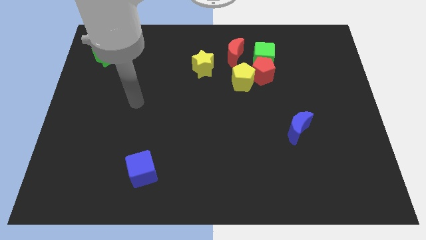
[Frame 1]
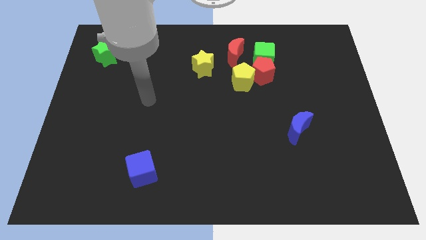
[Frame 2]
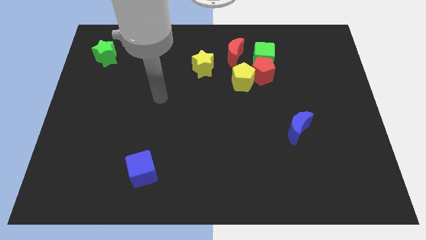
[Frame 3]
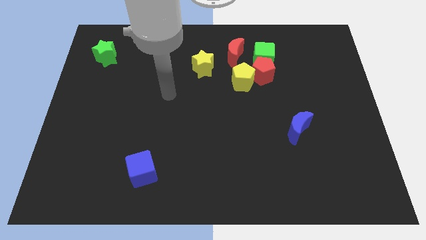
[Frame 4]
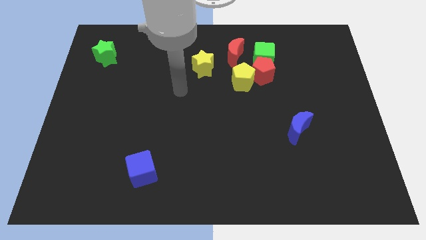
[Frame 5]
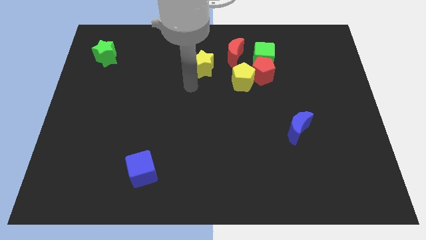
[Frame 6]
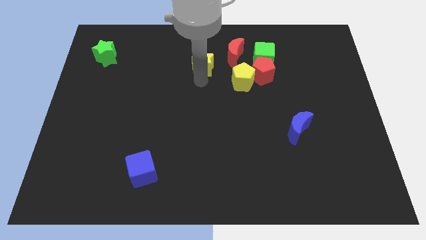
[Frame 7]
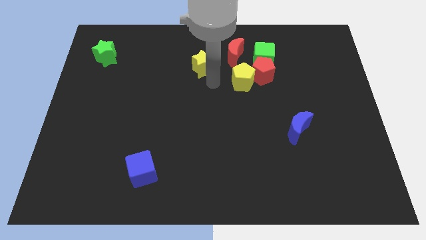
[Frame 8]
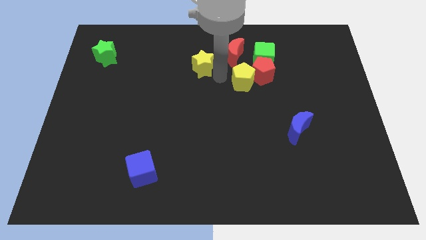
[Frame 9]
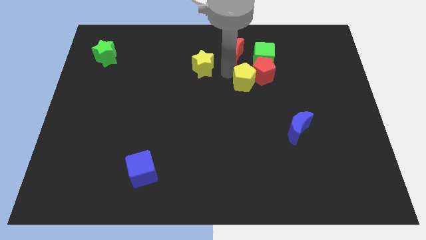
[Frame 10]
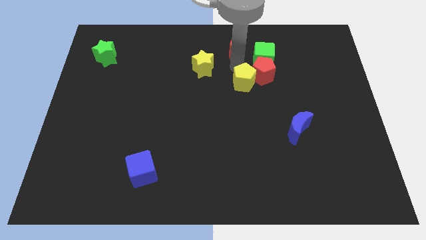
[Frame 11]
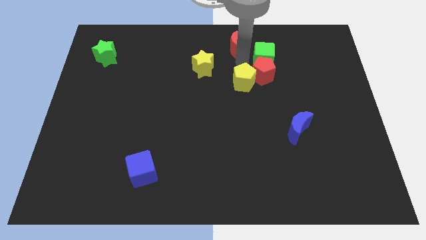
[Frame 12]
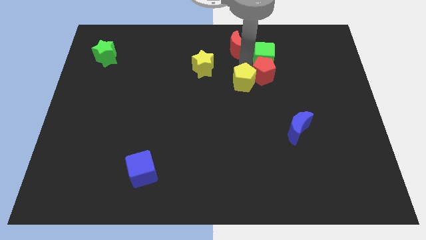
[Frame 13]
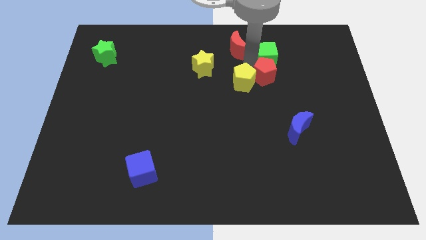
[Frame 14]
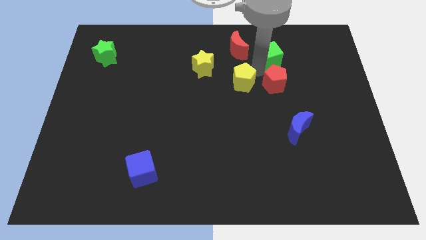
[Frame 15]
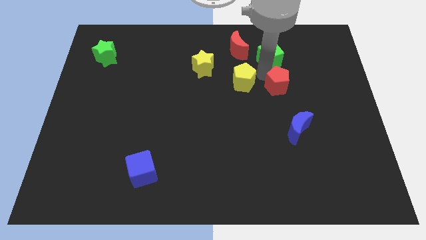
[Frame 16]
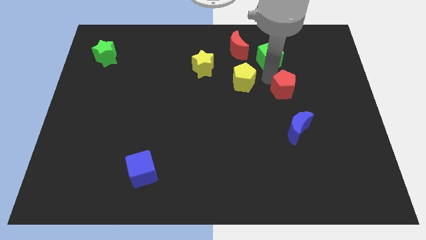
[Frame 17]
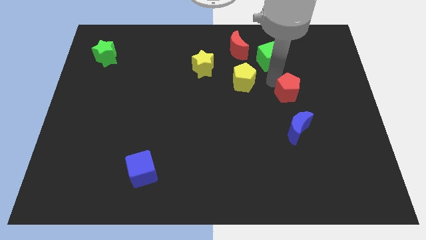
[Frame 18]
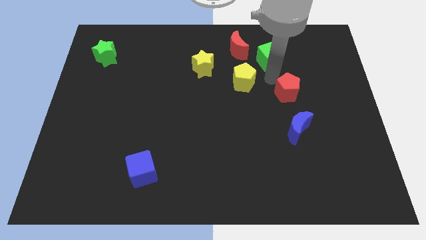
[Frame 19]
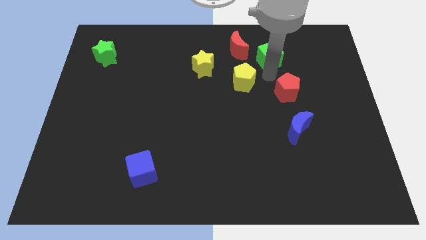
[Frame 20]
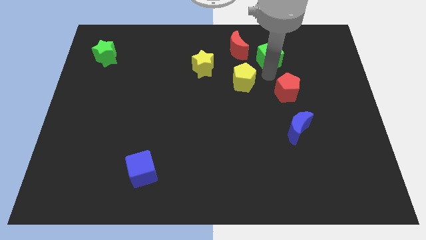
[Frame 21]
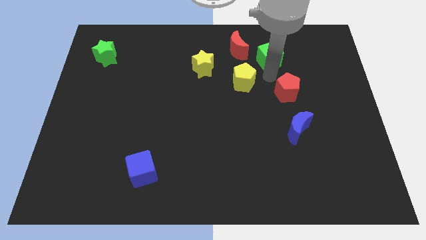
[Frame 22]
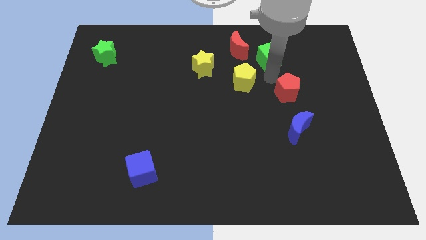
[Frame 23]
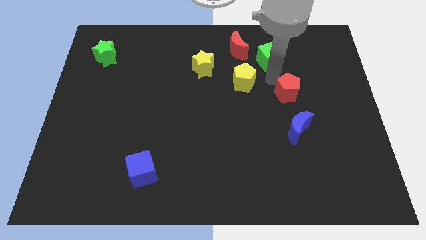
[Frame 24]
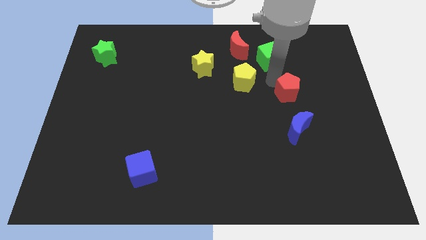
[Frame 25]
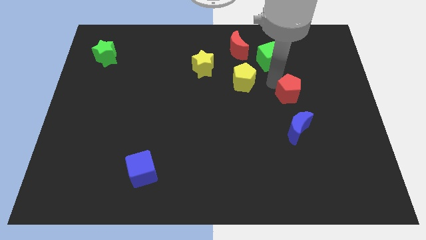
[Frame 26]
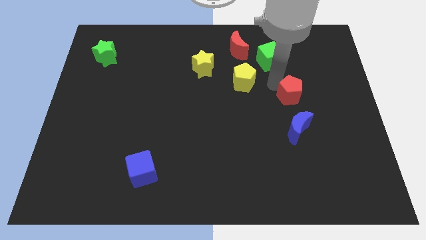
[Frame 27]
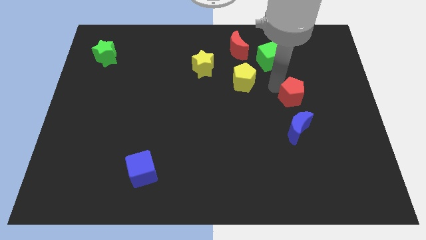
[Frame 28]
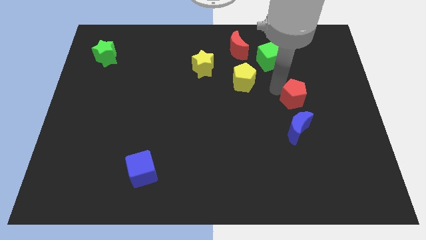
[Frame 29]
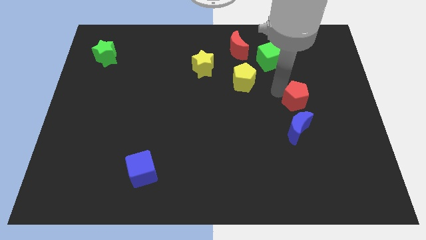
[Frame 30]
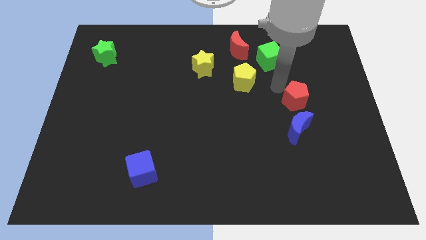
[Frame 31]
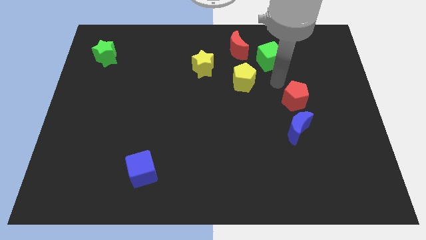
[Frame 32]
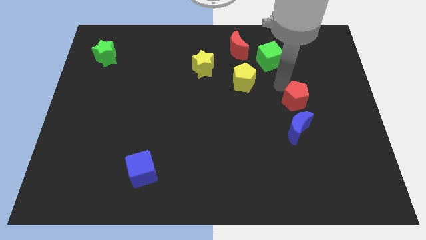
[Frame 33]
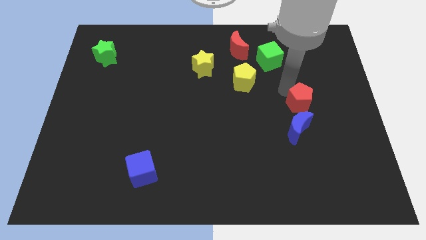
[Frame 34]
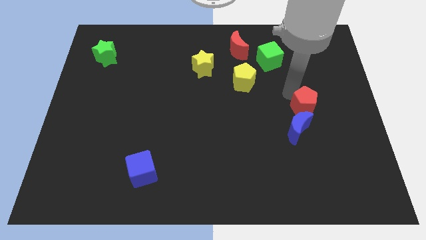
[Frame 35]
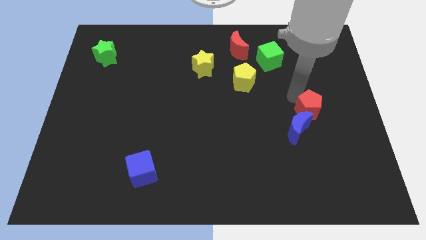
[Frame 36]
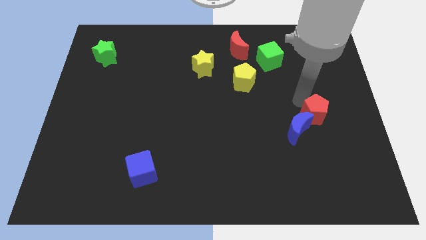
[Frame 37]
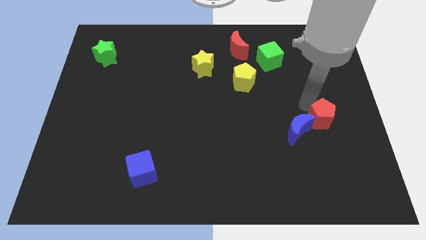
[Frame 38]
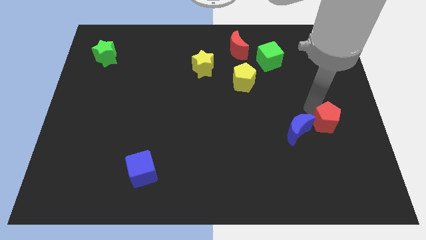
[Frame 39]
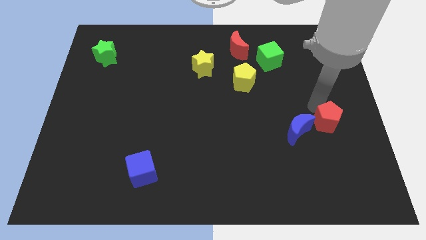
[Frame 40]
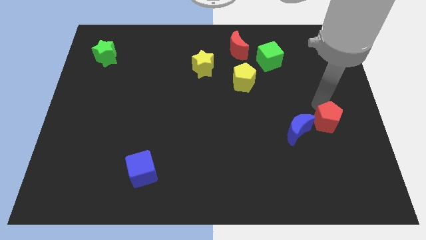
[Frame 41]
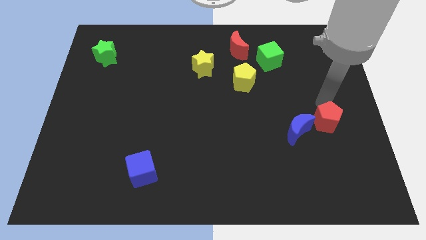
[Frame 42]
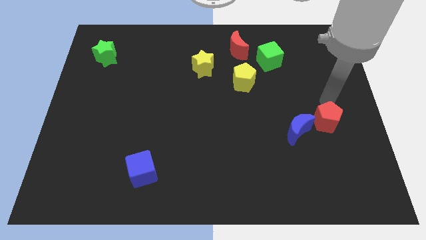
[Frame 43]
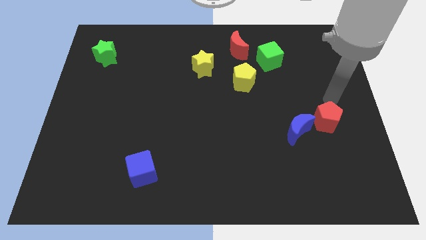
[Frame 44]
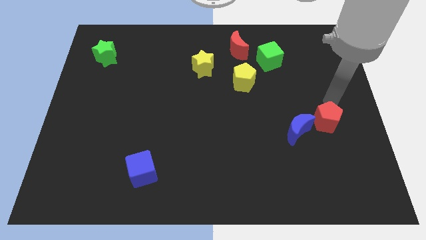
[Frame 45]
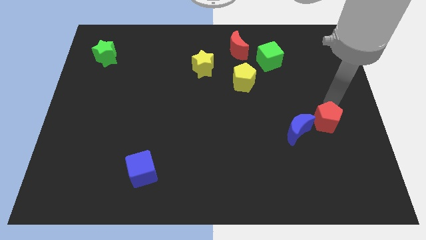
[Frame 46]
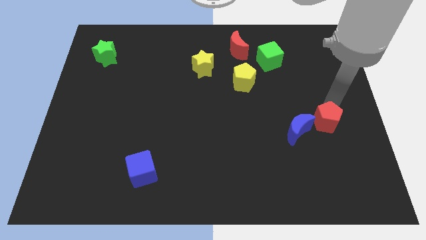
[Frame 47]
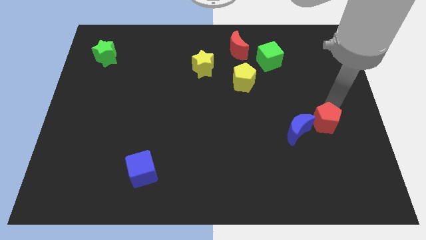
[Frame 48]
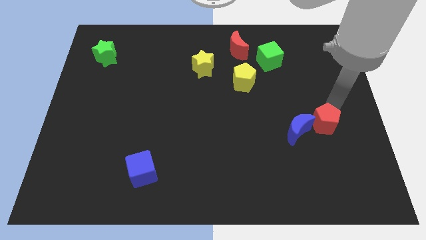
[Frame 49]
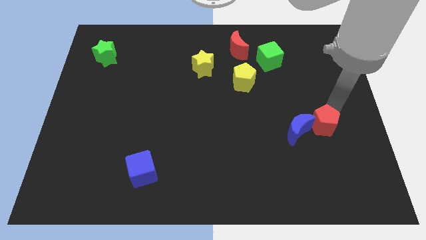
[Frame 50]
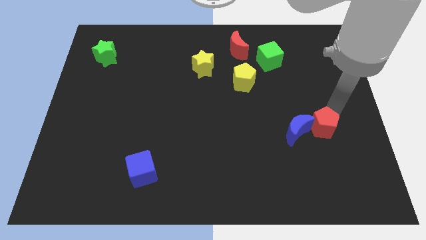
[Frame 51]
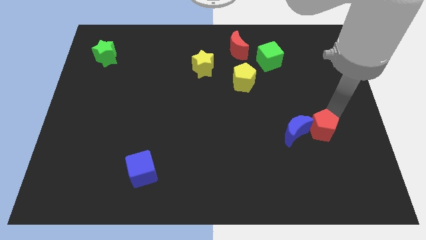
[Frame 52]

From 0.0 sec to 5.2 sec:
put the red pentagon to the bottom right side of the blue moon
